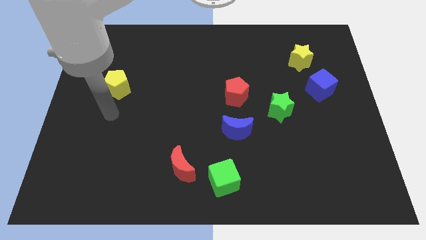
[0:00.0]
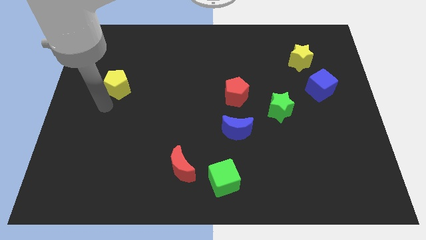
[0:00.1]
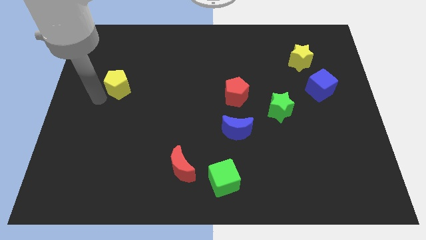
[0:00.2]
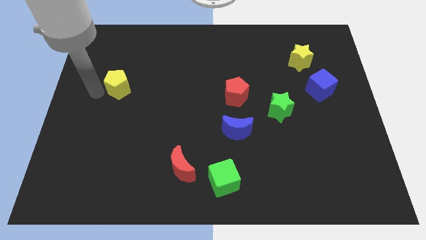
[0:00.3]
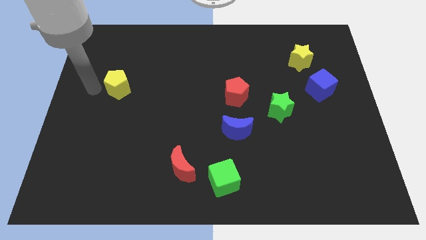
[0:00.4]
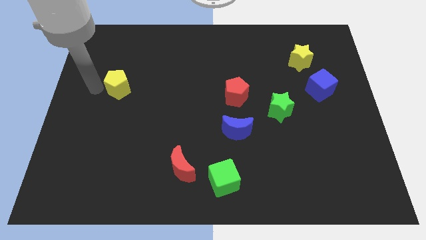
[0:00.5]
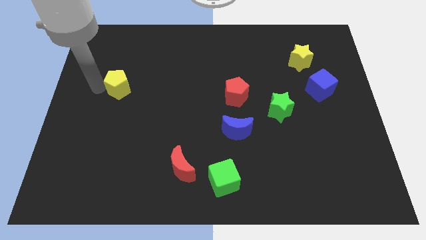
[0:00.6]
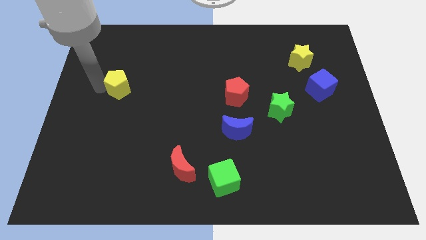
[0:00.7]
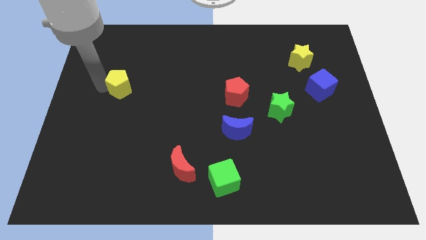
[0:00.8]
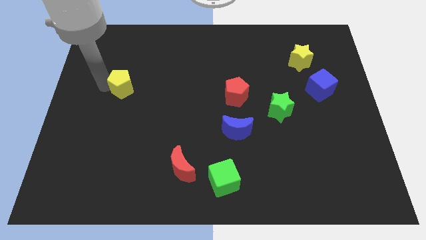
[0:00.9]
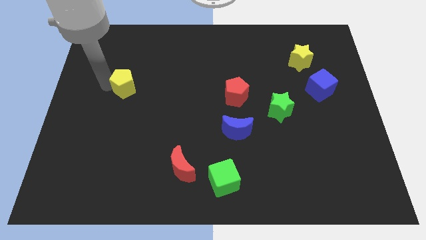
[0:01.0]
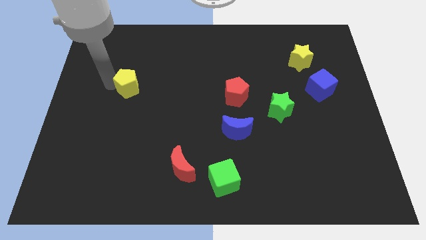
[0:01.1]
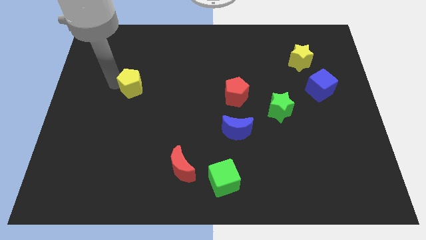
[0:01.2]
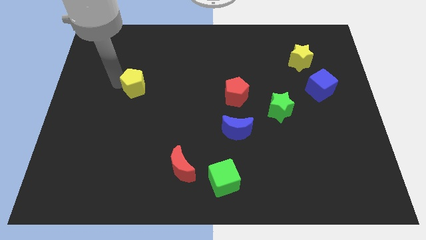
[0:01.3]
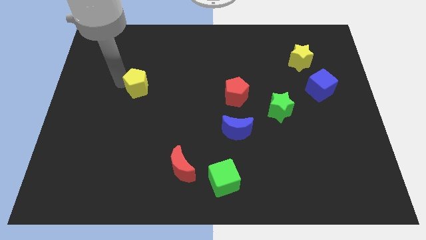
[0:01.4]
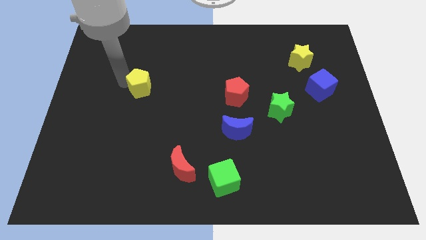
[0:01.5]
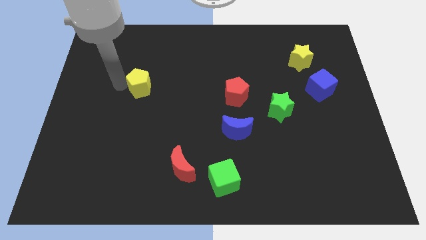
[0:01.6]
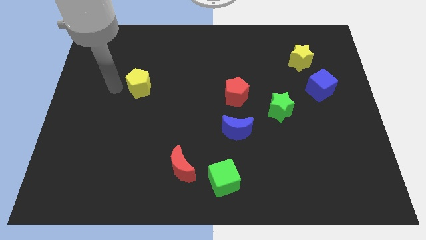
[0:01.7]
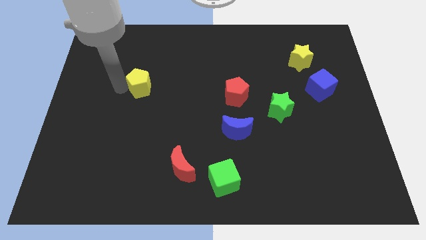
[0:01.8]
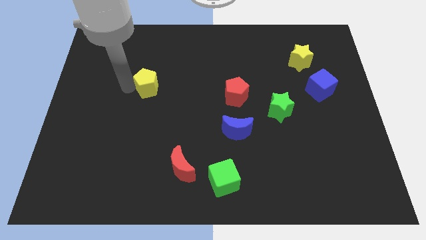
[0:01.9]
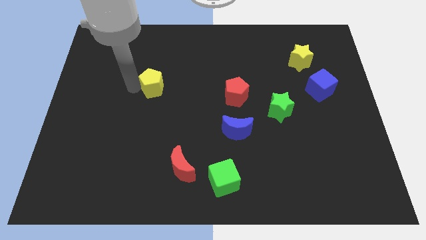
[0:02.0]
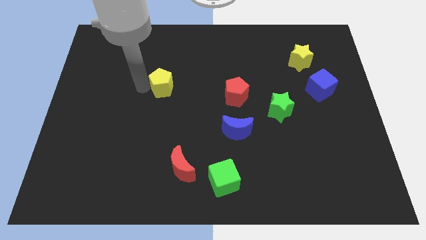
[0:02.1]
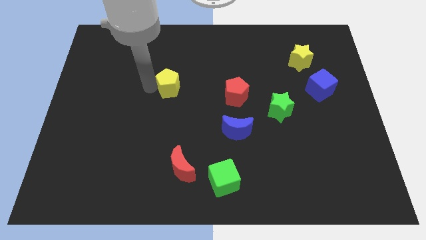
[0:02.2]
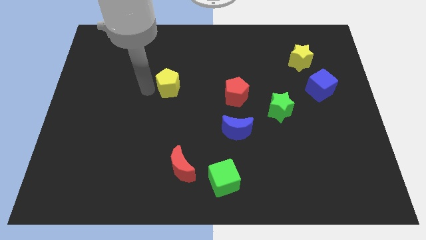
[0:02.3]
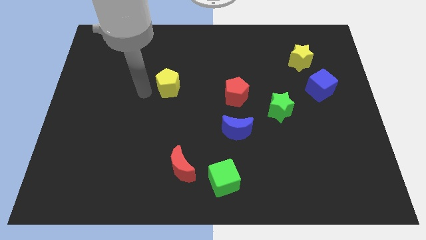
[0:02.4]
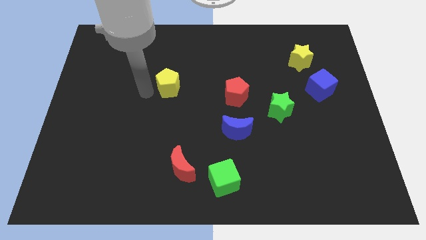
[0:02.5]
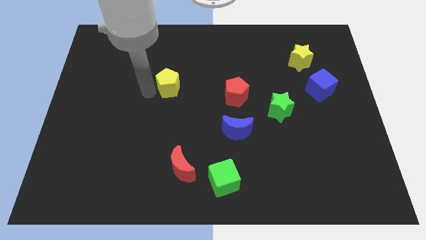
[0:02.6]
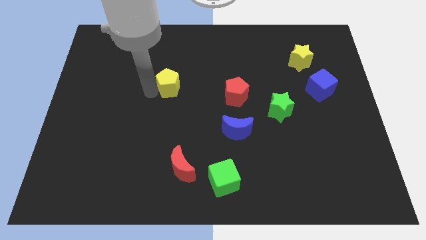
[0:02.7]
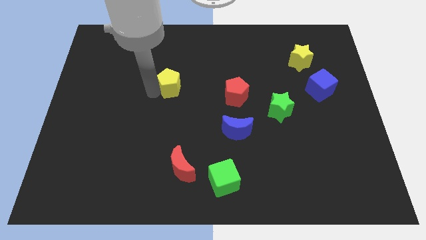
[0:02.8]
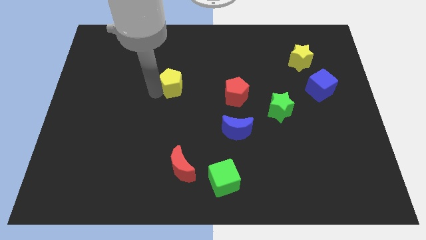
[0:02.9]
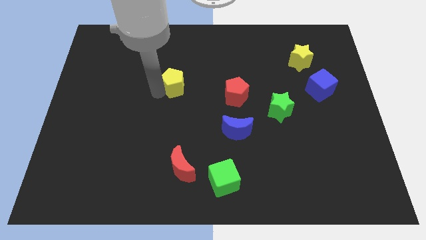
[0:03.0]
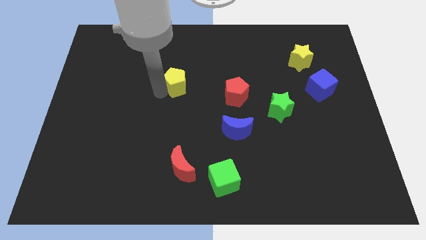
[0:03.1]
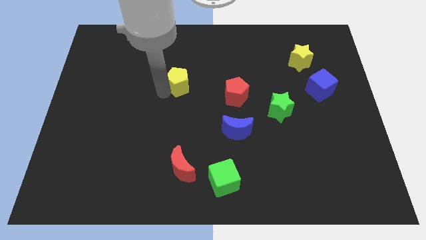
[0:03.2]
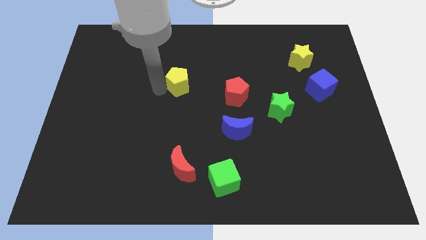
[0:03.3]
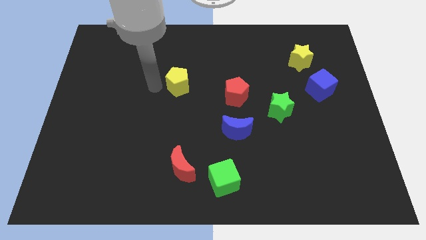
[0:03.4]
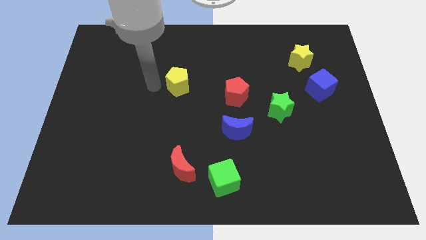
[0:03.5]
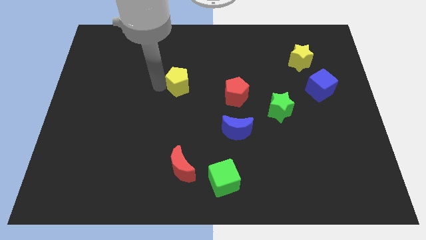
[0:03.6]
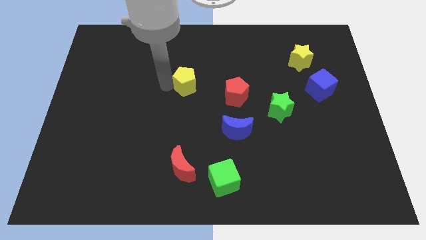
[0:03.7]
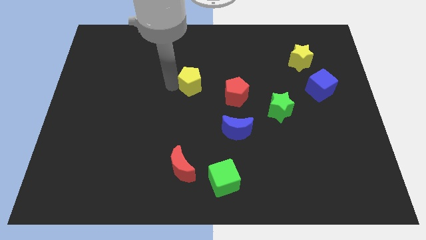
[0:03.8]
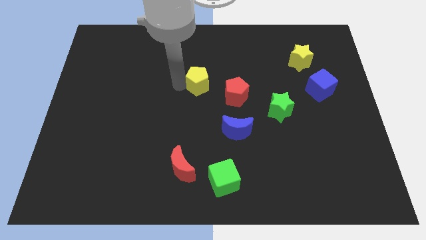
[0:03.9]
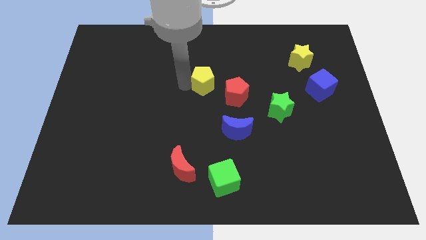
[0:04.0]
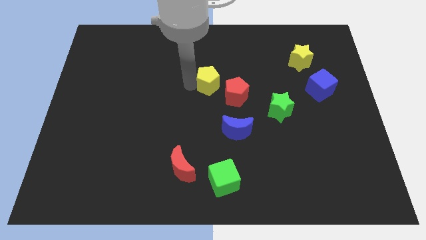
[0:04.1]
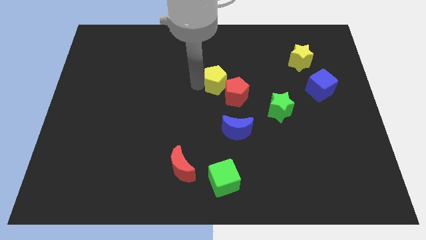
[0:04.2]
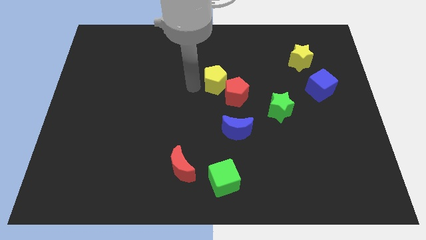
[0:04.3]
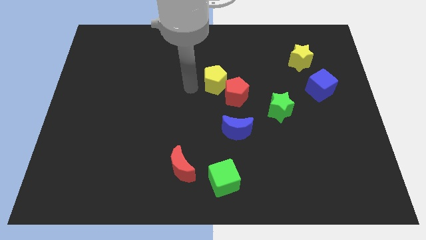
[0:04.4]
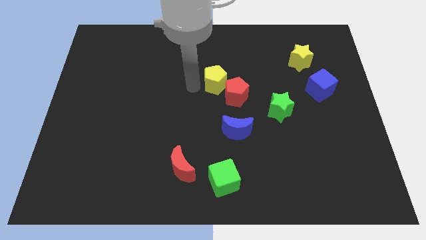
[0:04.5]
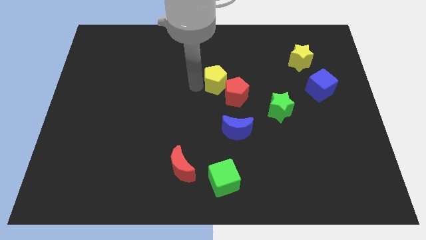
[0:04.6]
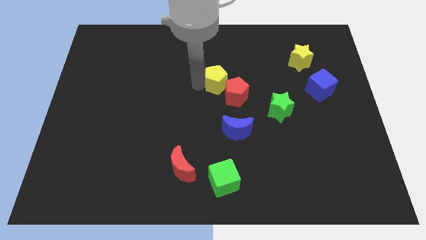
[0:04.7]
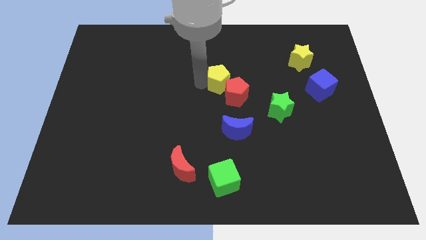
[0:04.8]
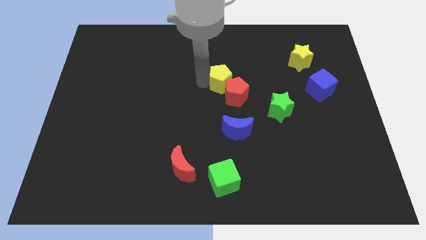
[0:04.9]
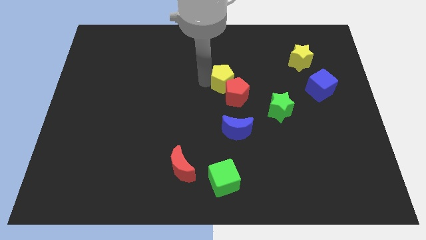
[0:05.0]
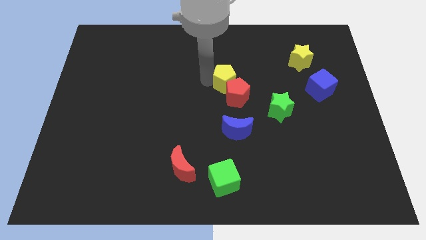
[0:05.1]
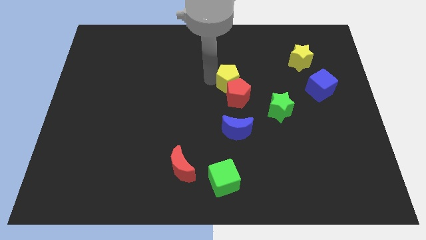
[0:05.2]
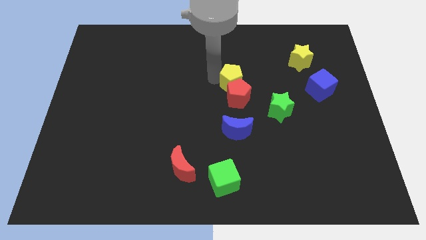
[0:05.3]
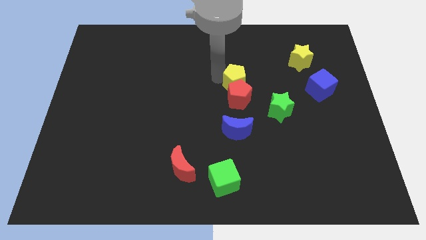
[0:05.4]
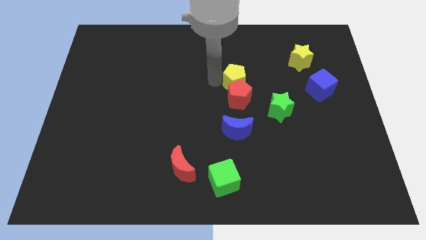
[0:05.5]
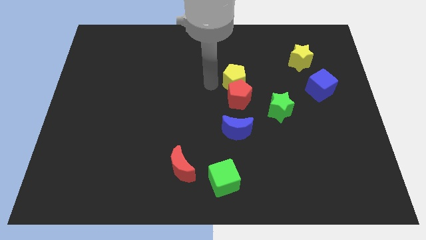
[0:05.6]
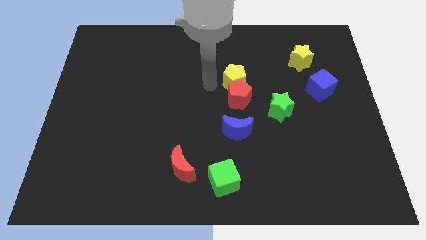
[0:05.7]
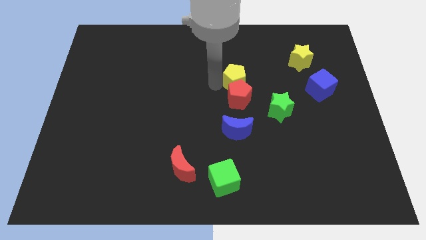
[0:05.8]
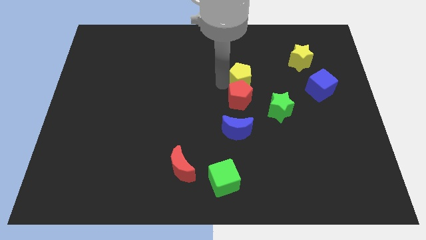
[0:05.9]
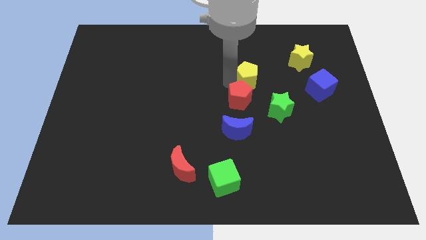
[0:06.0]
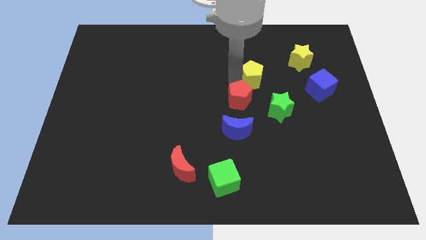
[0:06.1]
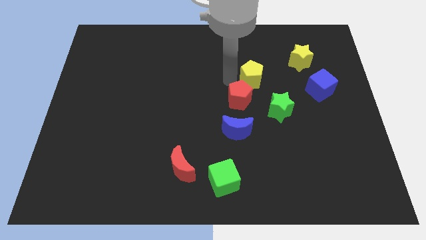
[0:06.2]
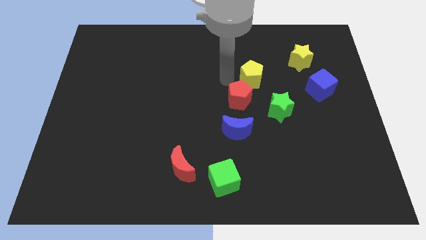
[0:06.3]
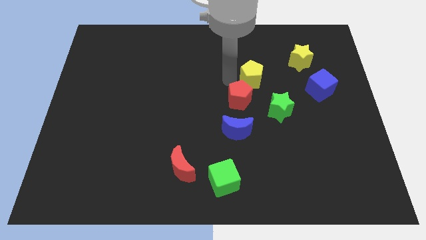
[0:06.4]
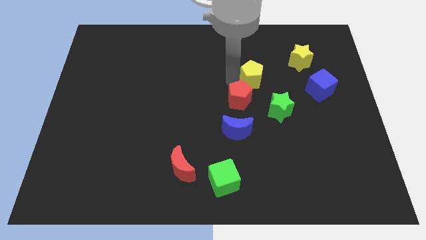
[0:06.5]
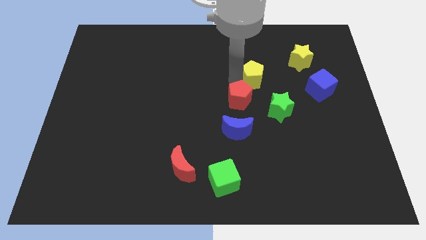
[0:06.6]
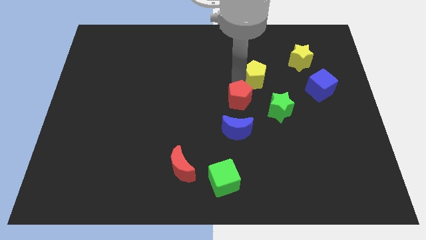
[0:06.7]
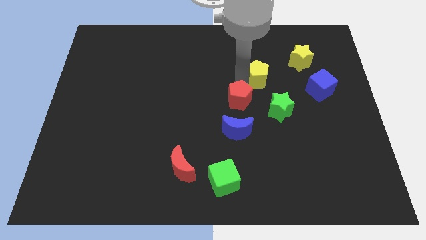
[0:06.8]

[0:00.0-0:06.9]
put the yellow pentagon to the top of the green star

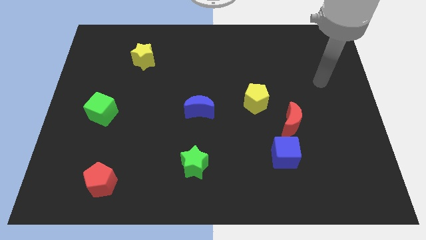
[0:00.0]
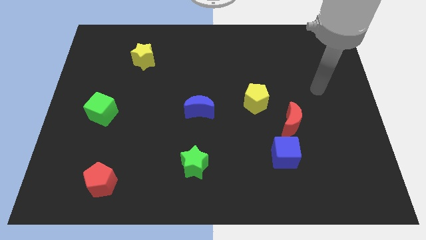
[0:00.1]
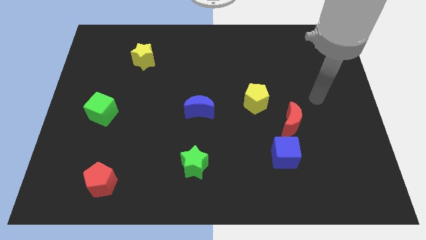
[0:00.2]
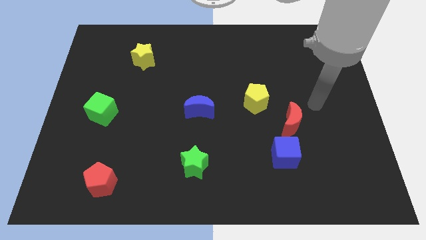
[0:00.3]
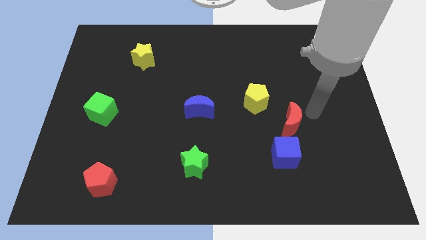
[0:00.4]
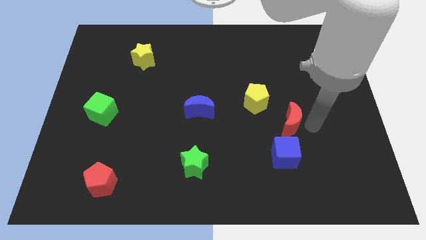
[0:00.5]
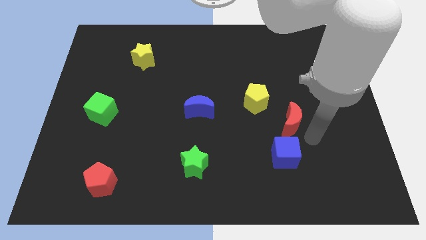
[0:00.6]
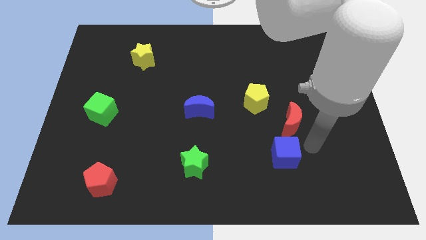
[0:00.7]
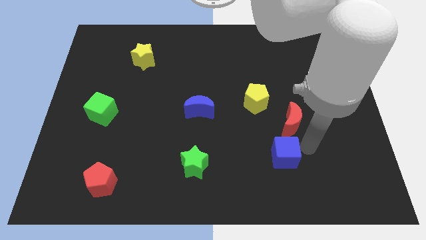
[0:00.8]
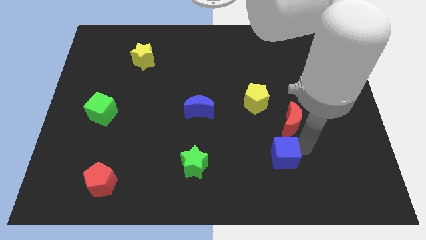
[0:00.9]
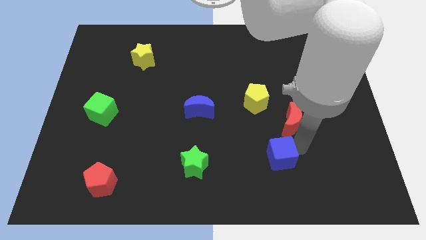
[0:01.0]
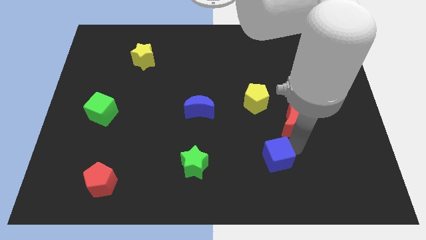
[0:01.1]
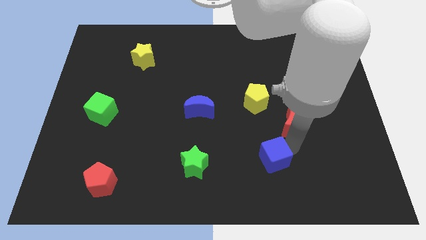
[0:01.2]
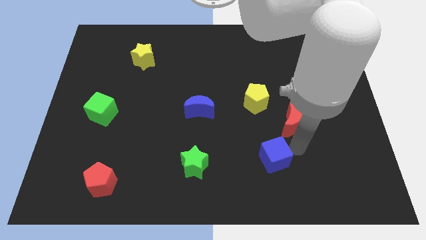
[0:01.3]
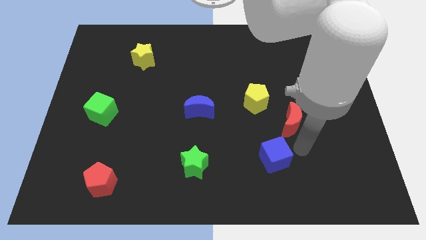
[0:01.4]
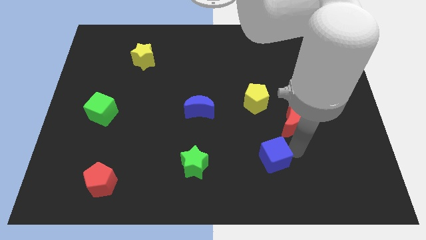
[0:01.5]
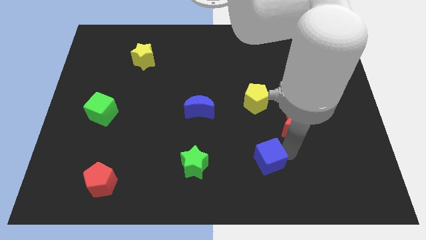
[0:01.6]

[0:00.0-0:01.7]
slide the blue cube just right of the green star
